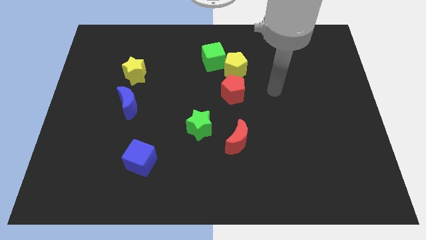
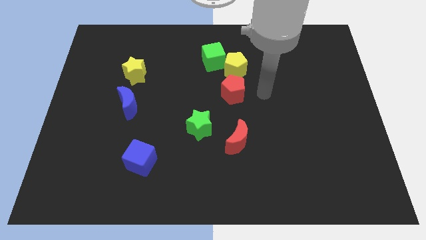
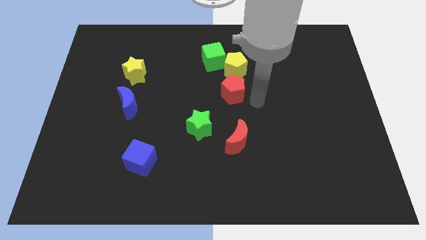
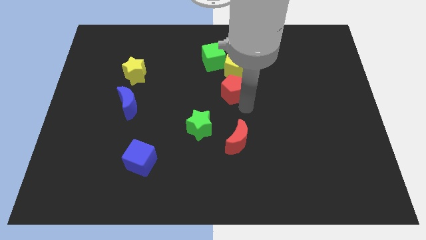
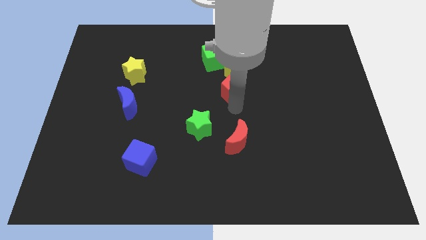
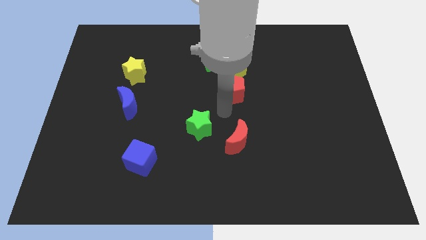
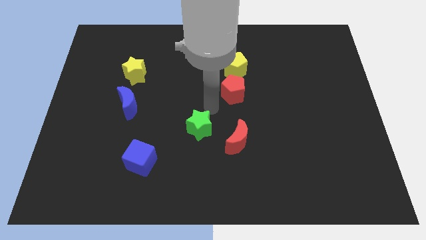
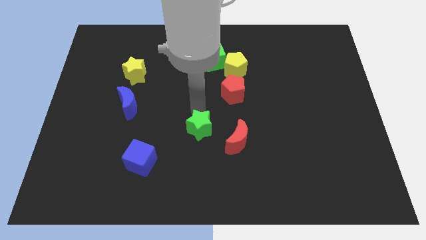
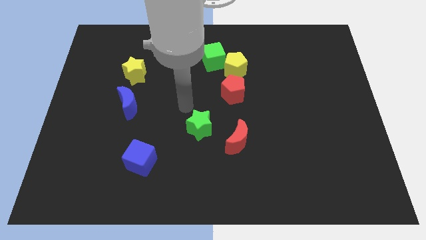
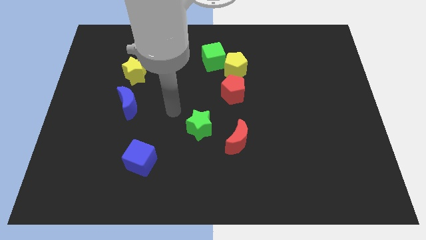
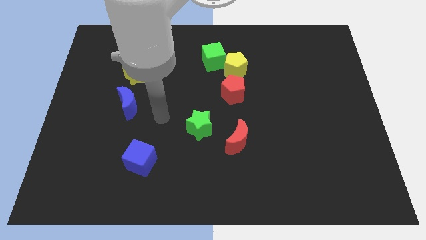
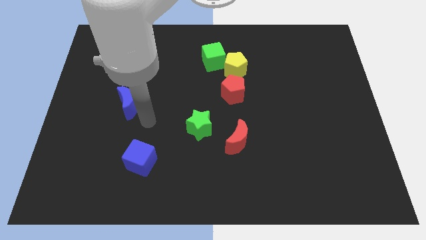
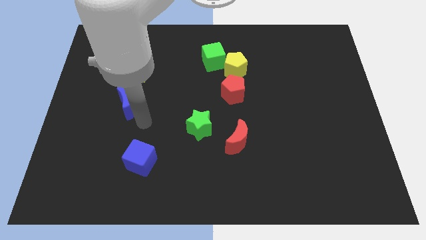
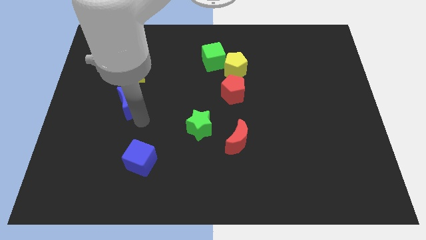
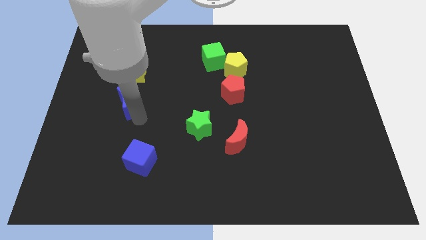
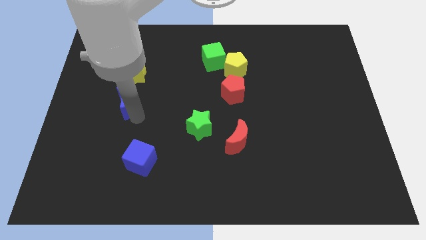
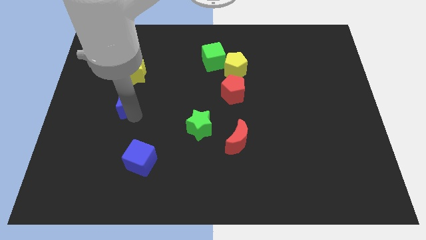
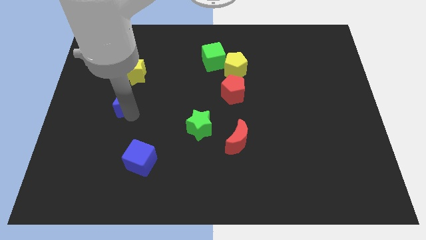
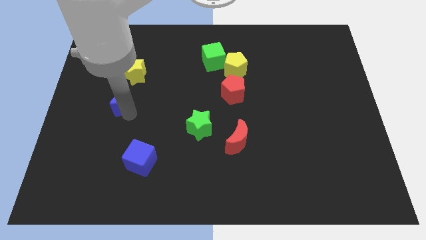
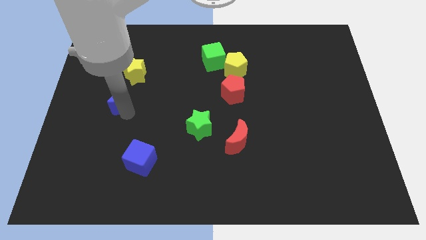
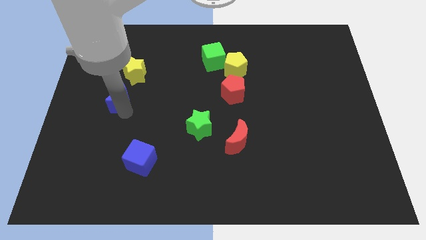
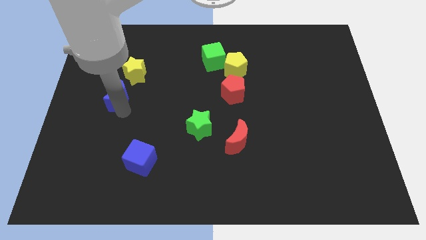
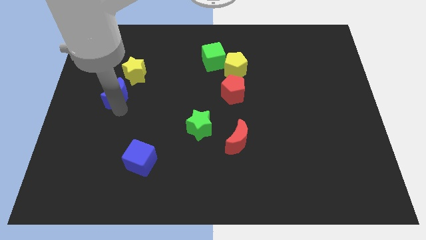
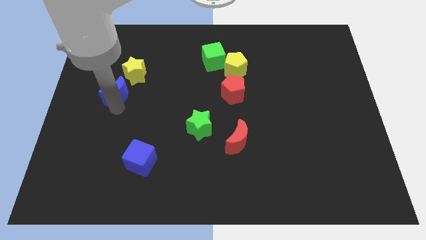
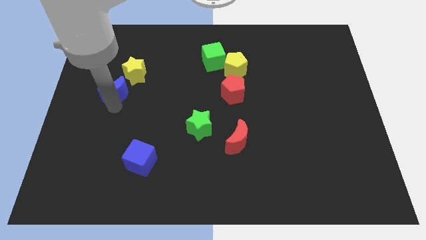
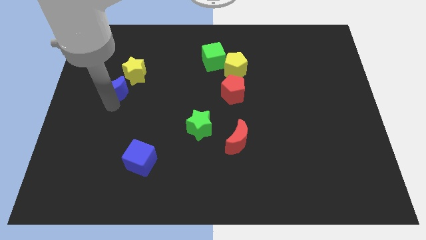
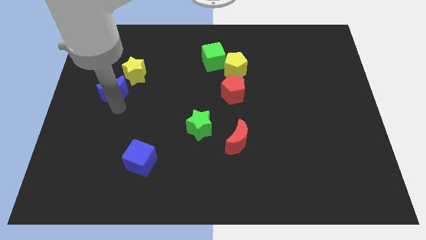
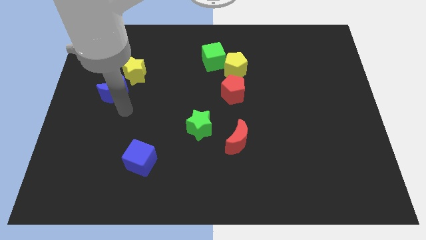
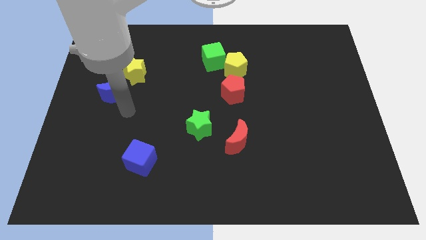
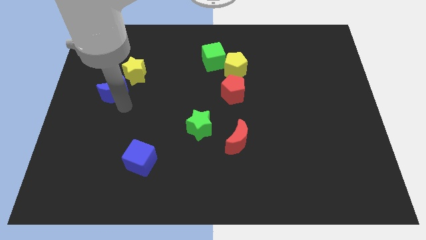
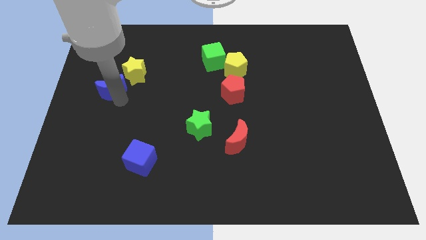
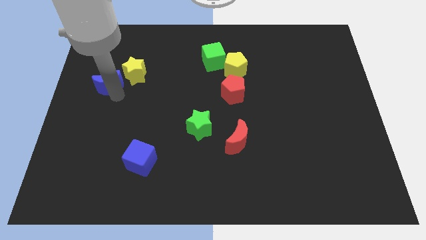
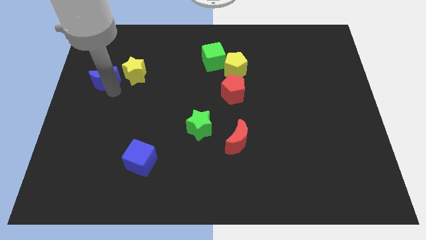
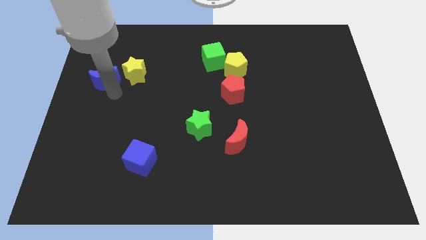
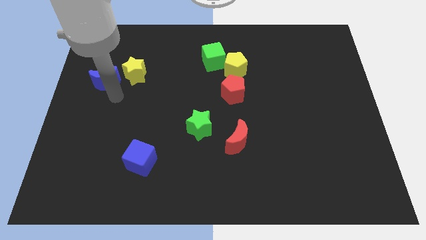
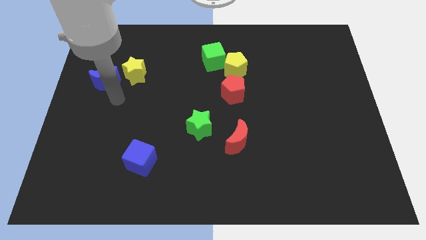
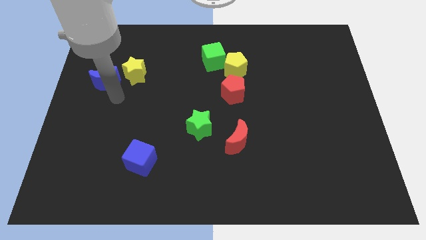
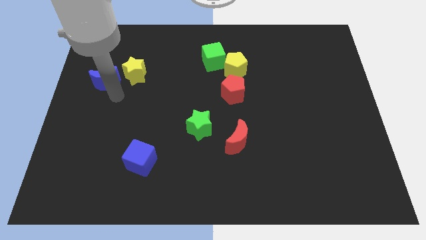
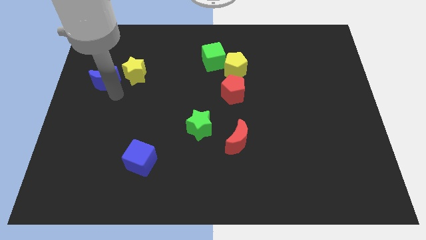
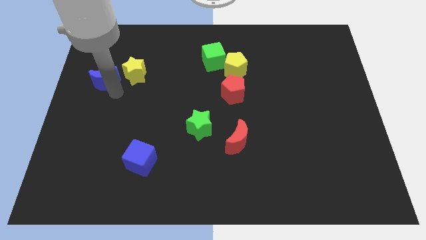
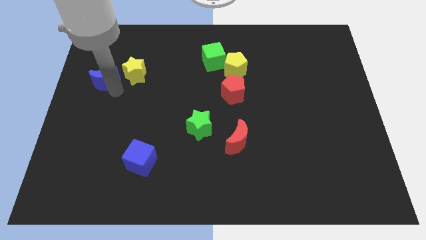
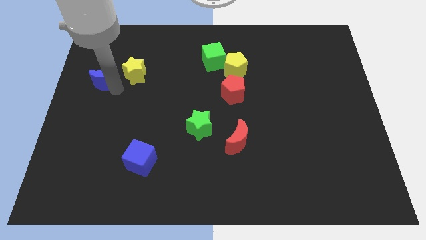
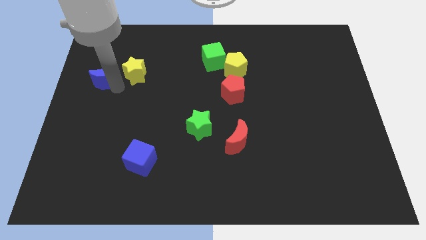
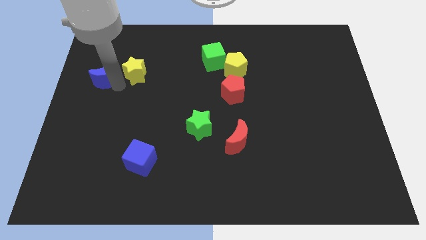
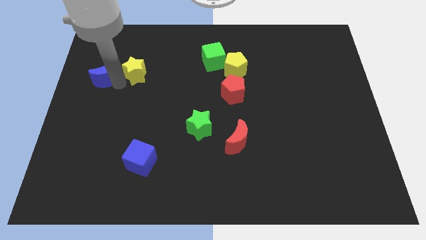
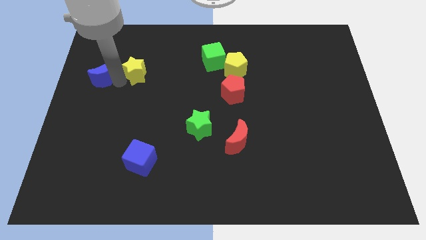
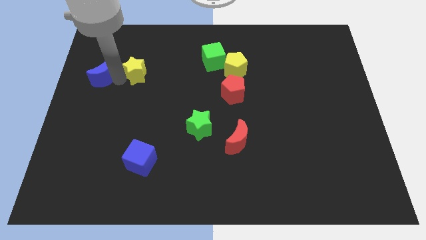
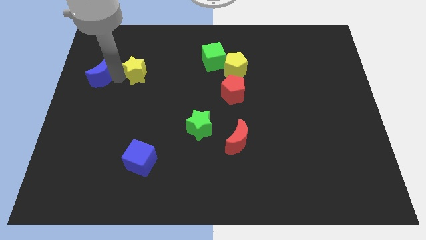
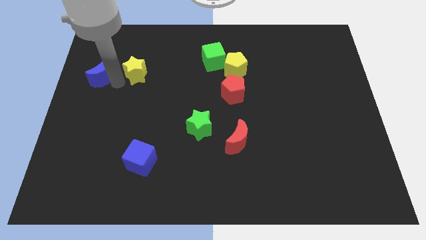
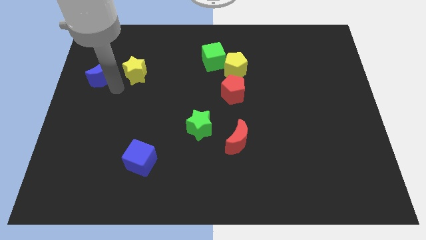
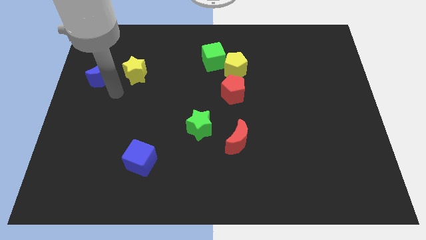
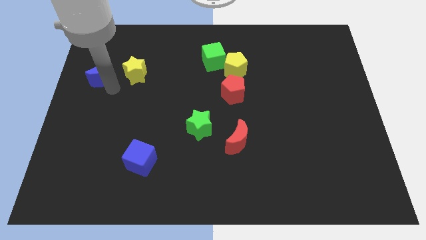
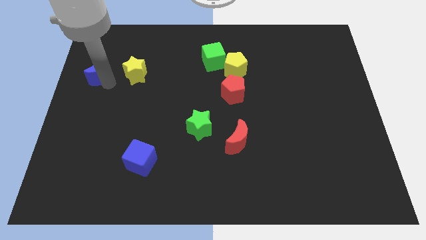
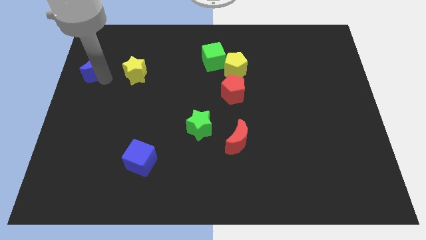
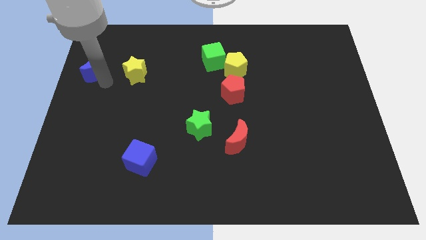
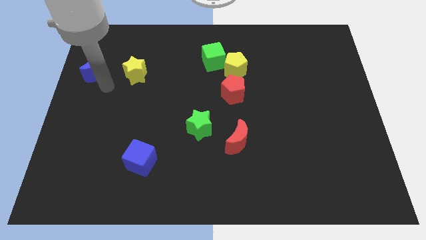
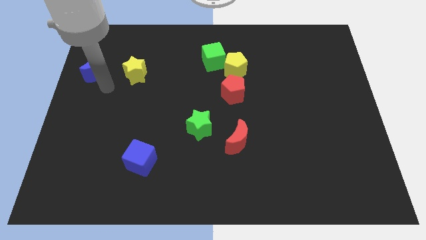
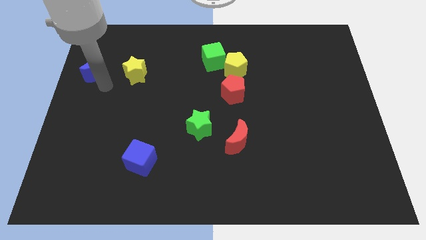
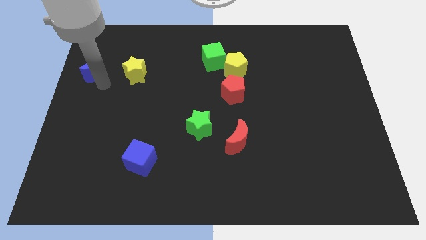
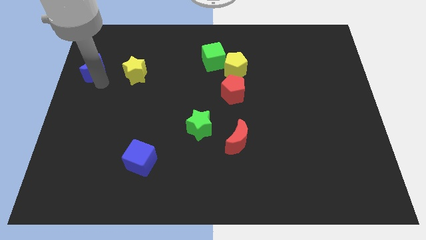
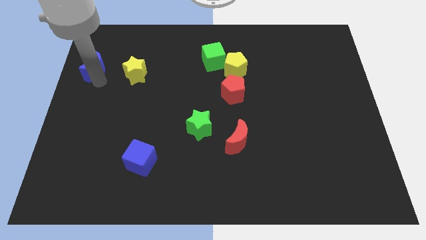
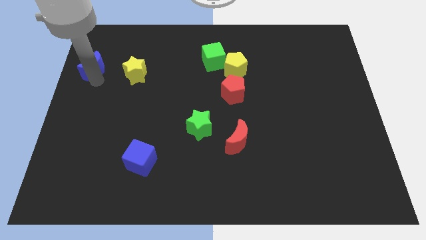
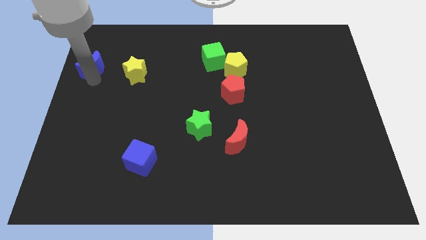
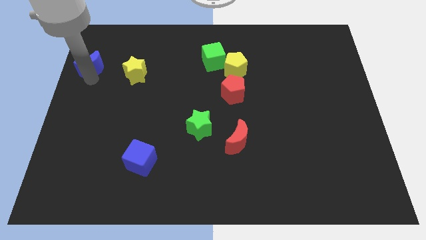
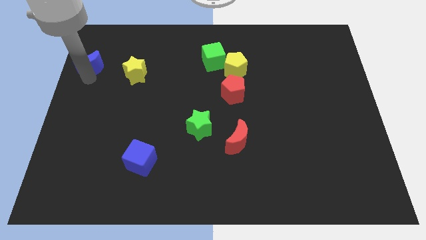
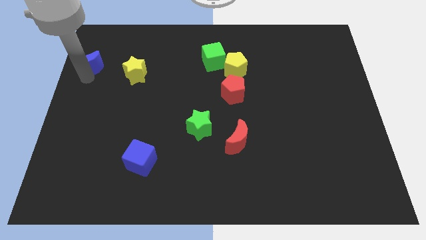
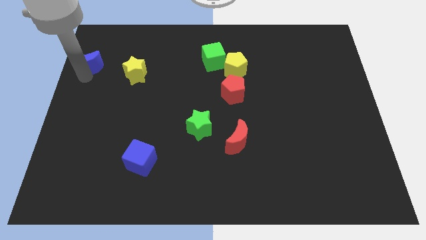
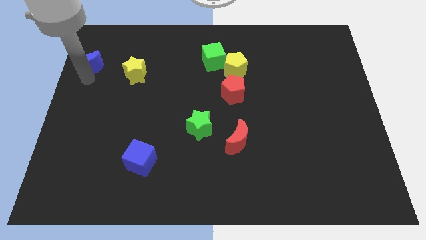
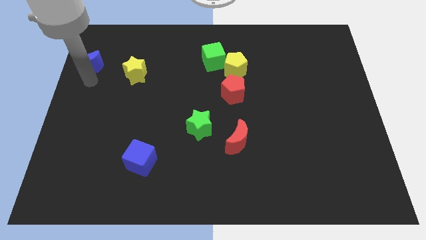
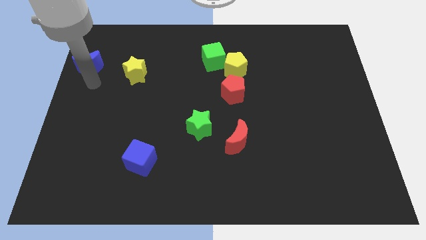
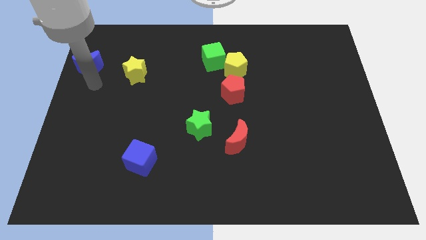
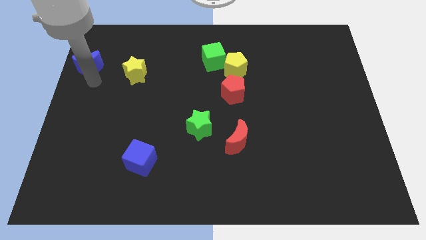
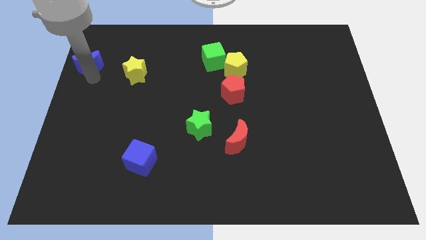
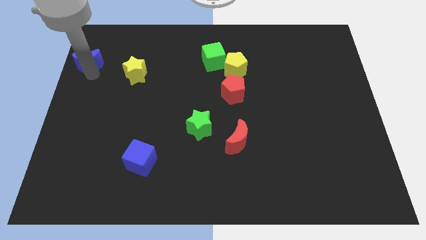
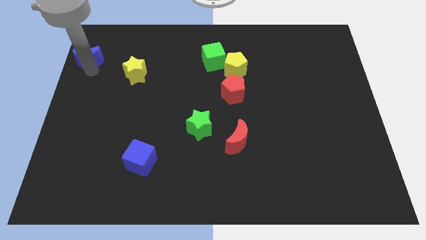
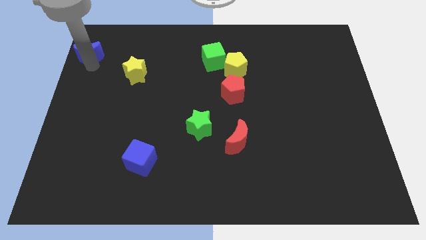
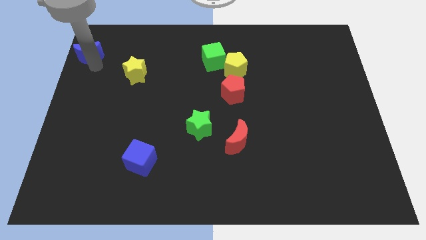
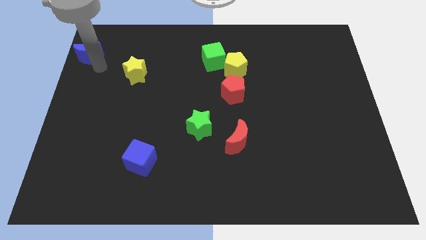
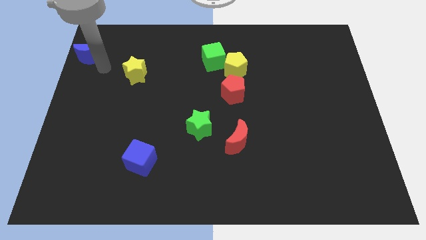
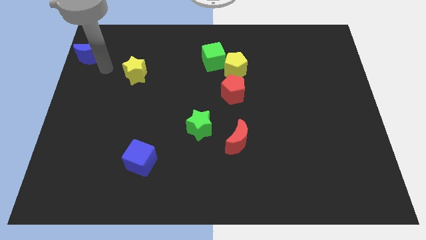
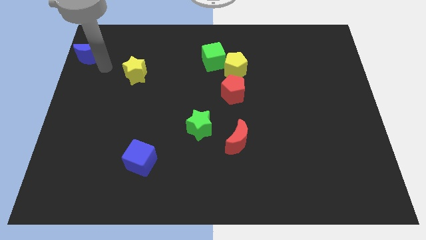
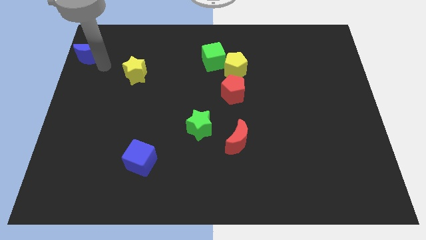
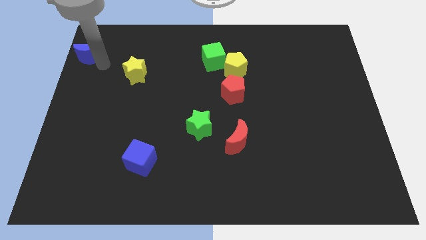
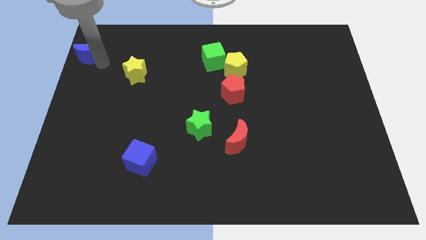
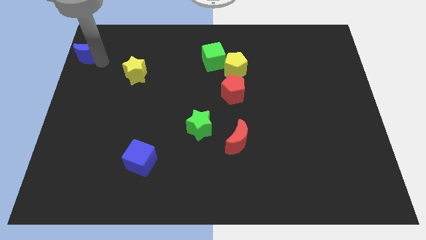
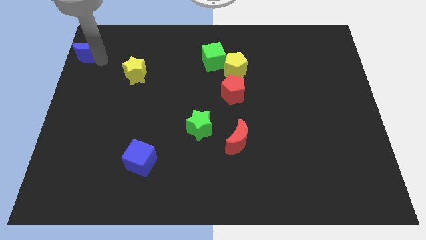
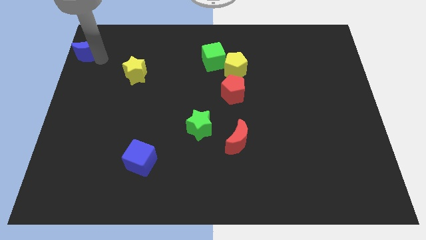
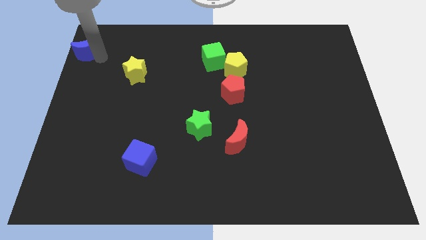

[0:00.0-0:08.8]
slide the blue moon to the top left of the board
